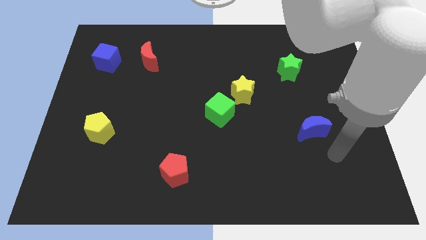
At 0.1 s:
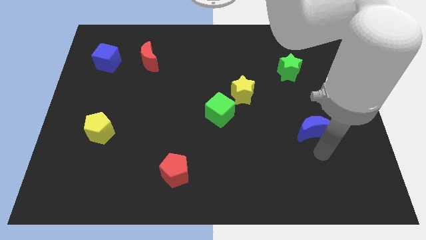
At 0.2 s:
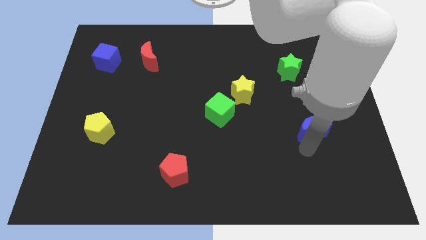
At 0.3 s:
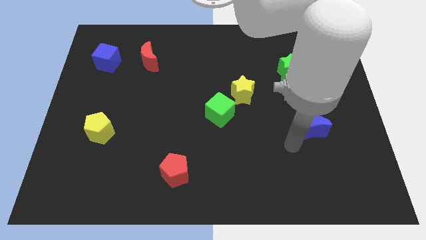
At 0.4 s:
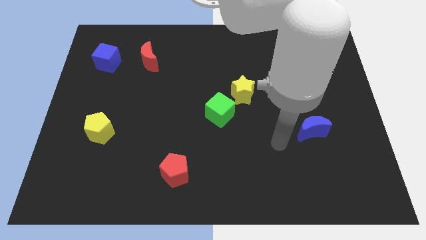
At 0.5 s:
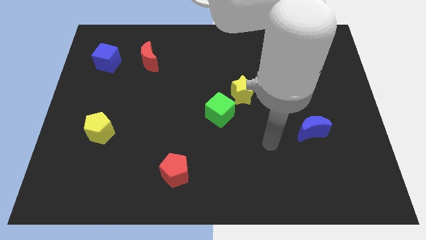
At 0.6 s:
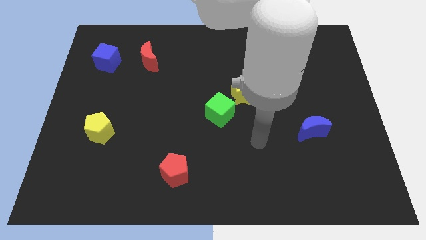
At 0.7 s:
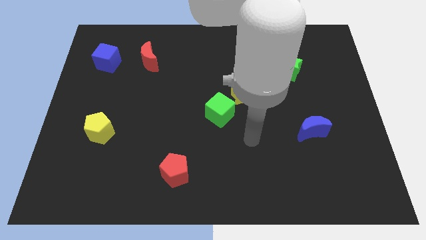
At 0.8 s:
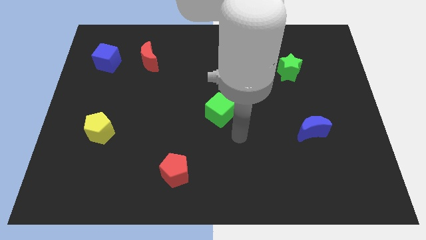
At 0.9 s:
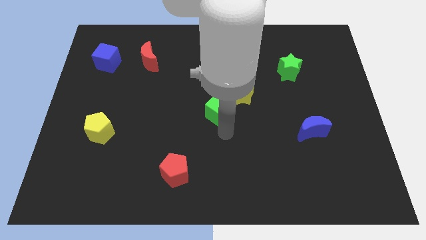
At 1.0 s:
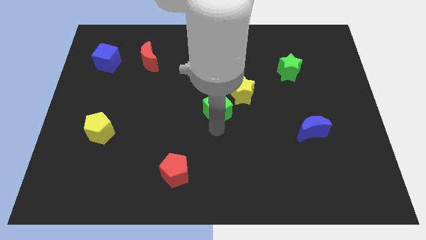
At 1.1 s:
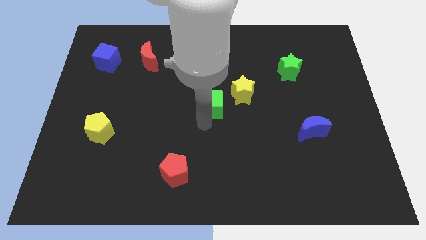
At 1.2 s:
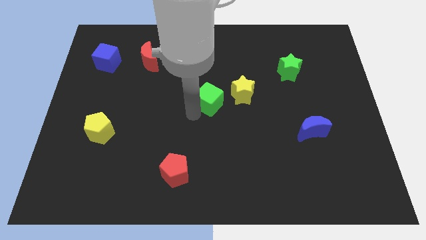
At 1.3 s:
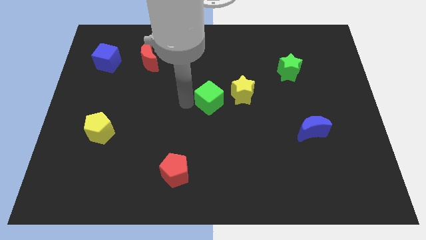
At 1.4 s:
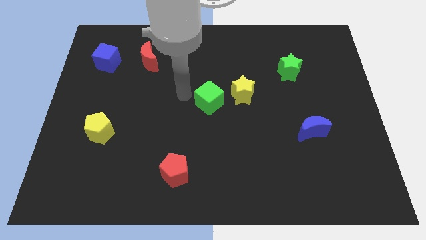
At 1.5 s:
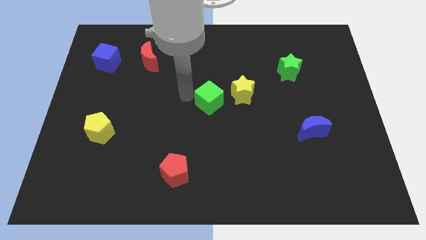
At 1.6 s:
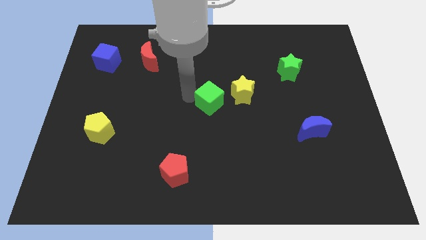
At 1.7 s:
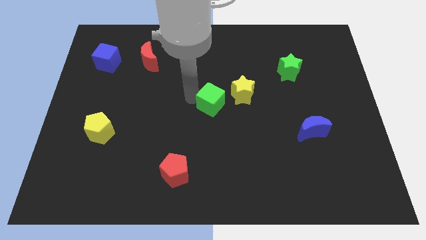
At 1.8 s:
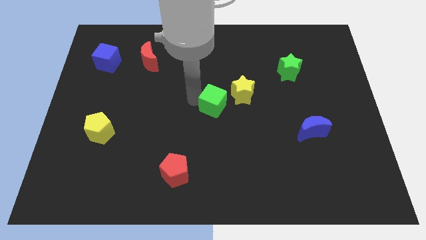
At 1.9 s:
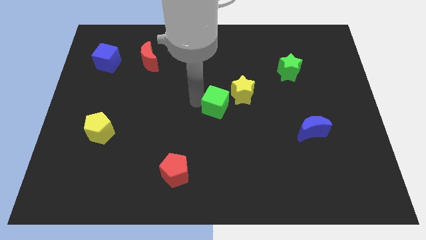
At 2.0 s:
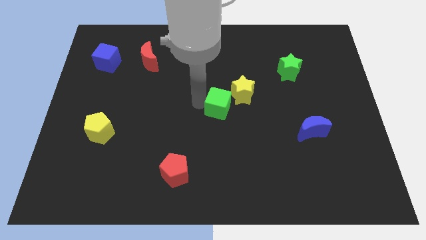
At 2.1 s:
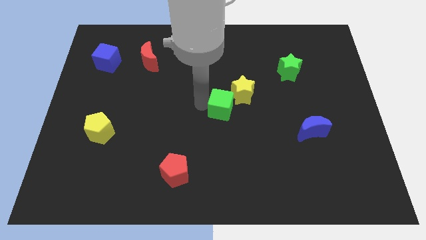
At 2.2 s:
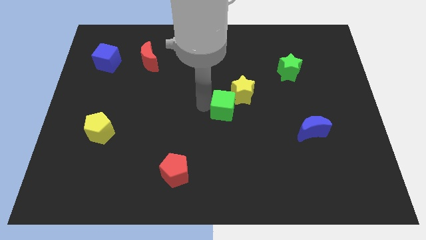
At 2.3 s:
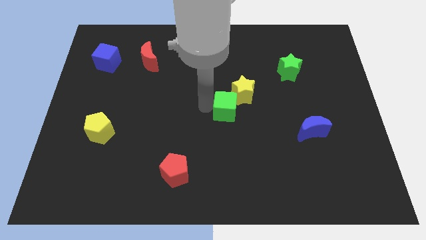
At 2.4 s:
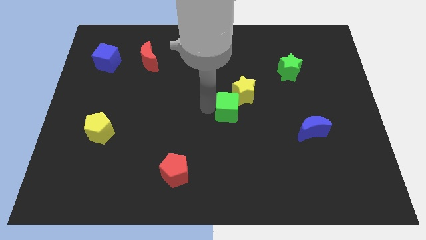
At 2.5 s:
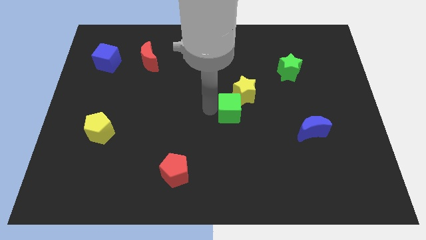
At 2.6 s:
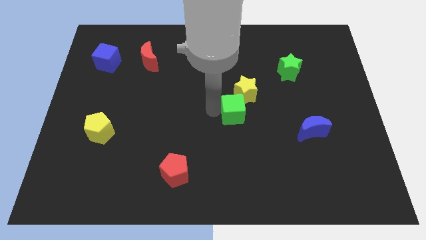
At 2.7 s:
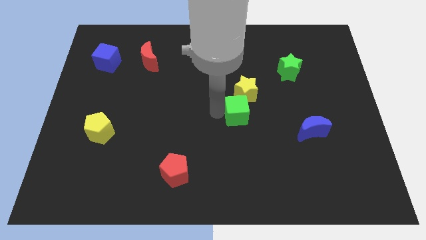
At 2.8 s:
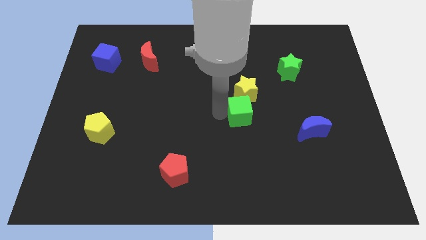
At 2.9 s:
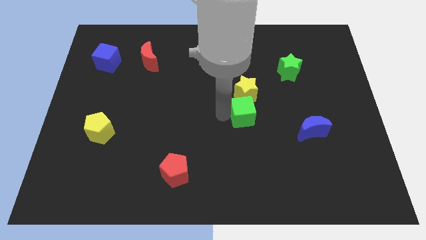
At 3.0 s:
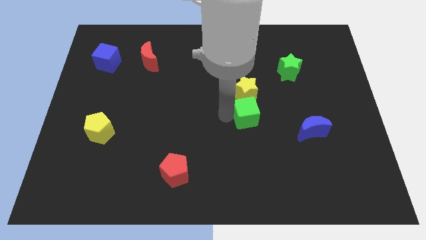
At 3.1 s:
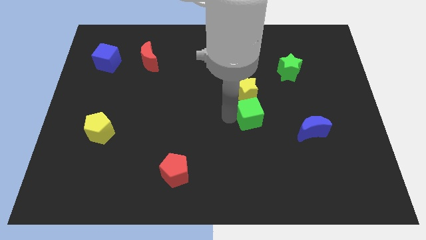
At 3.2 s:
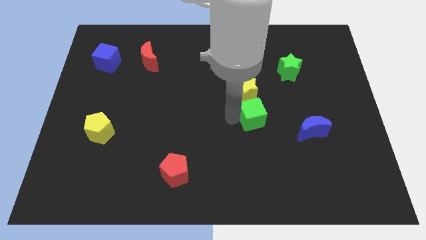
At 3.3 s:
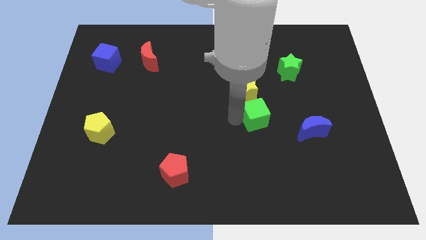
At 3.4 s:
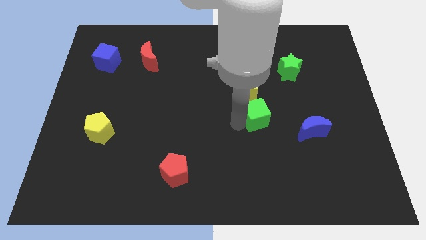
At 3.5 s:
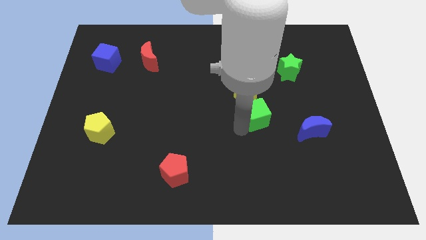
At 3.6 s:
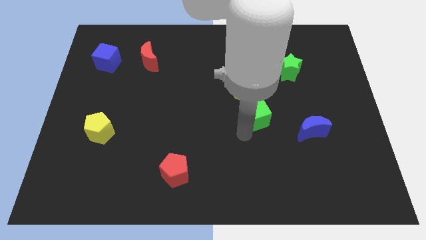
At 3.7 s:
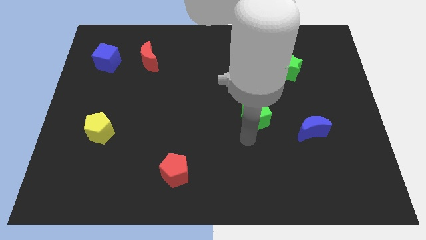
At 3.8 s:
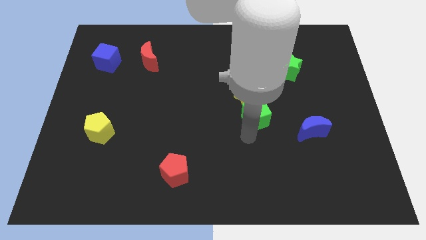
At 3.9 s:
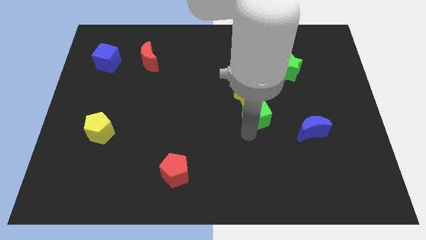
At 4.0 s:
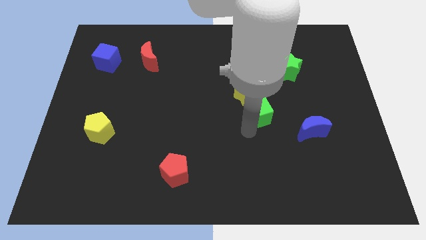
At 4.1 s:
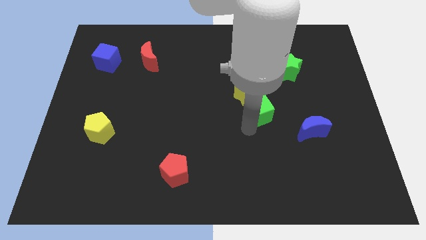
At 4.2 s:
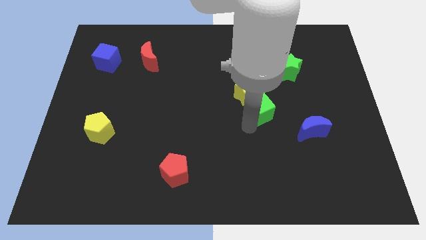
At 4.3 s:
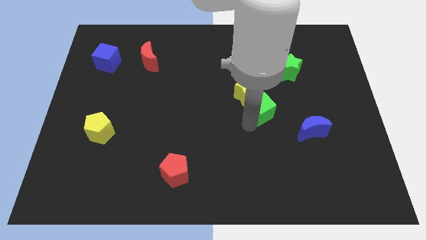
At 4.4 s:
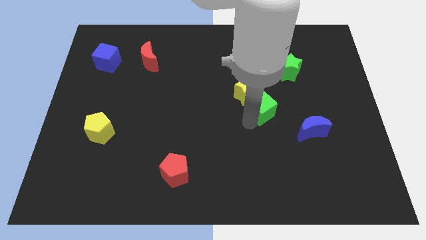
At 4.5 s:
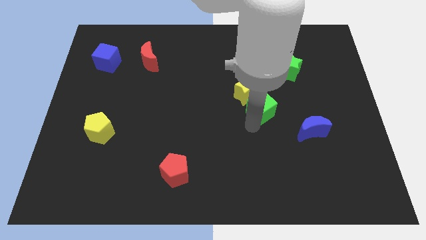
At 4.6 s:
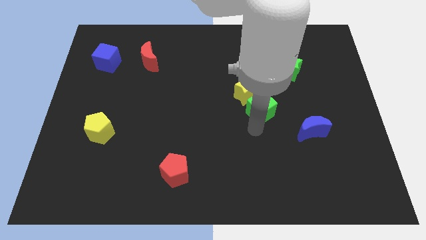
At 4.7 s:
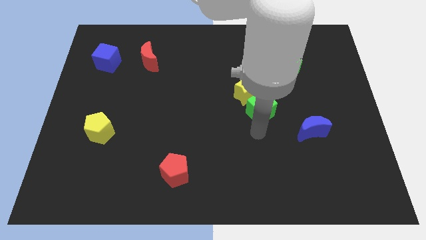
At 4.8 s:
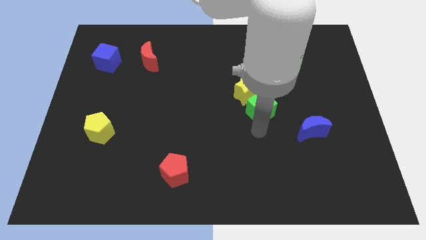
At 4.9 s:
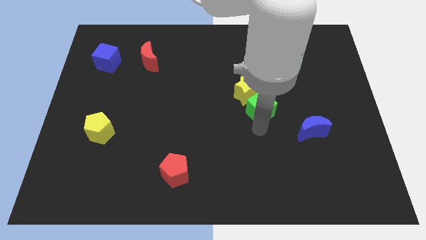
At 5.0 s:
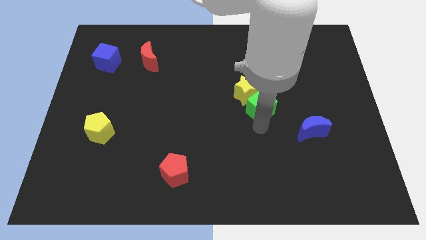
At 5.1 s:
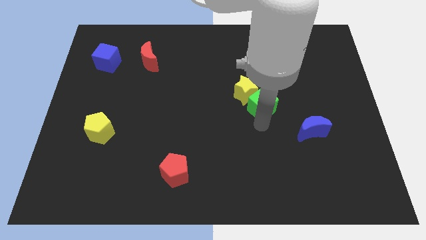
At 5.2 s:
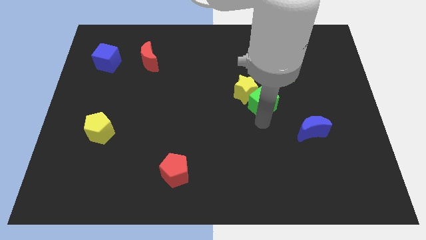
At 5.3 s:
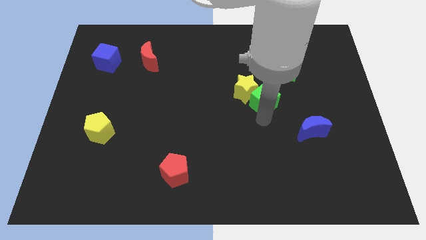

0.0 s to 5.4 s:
move the green cube diagonally down and to the left of the green star

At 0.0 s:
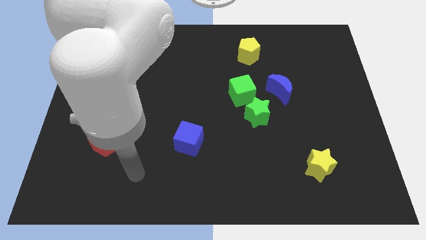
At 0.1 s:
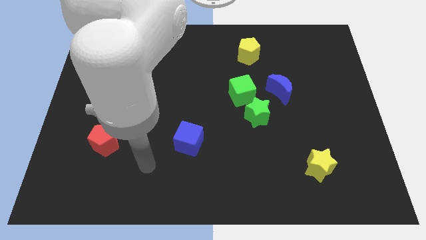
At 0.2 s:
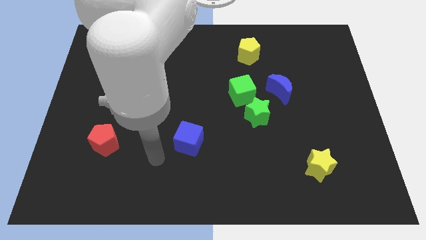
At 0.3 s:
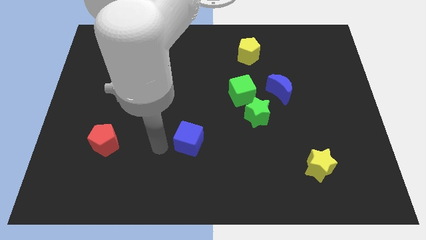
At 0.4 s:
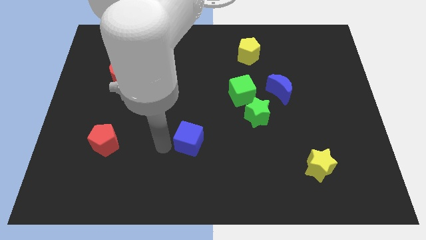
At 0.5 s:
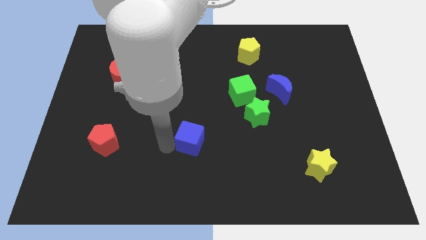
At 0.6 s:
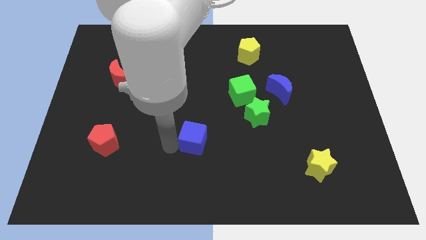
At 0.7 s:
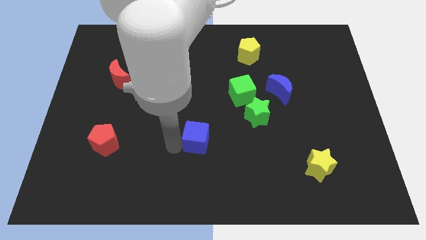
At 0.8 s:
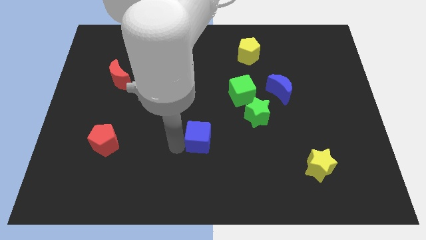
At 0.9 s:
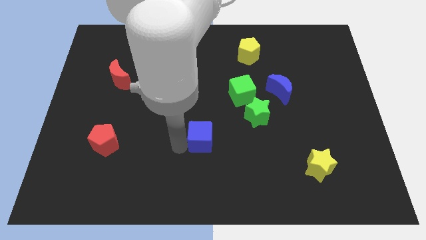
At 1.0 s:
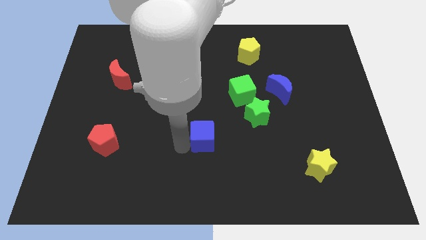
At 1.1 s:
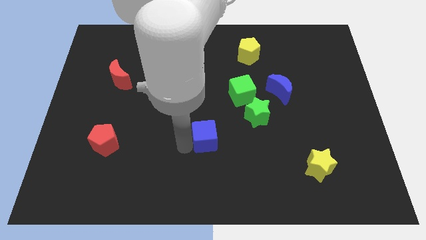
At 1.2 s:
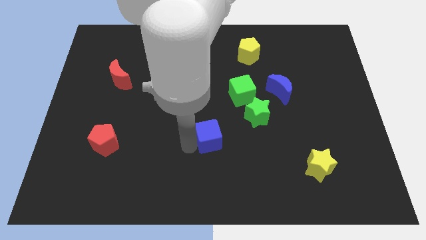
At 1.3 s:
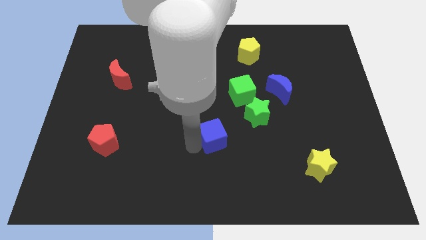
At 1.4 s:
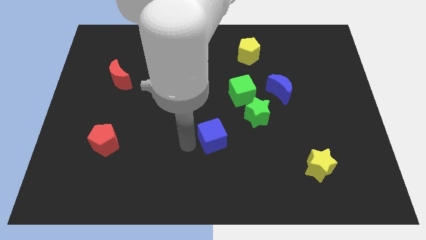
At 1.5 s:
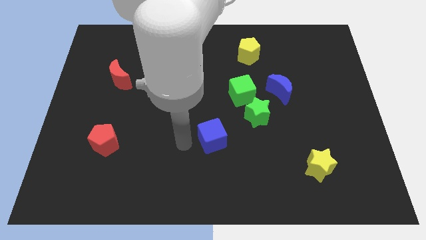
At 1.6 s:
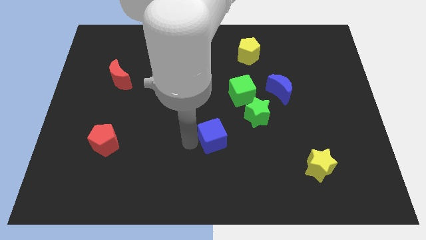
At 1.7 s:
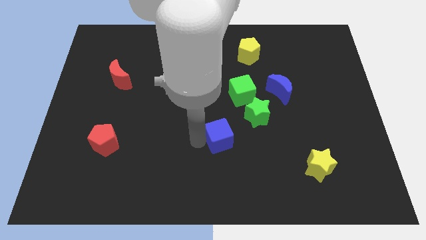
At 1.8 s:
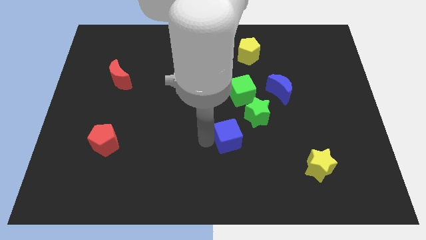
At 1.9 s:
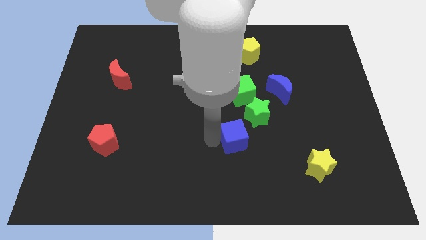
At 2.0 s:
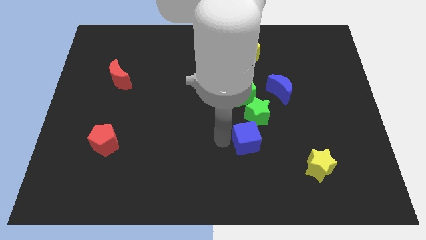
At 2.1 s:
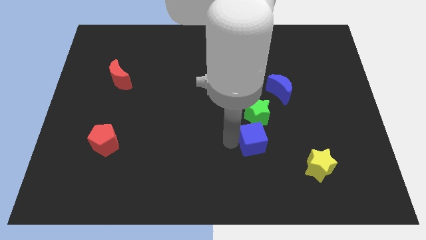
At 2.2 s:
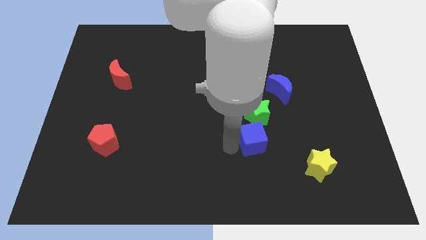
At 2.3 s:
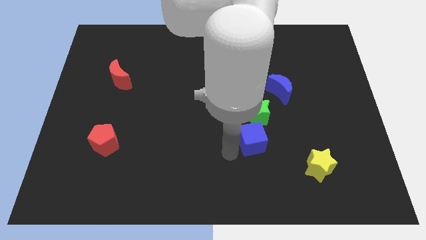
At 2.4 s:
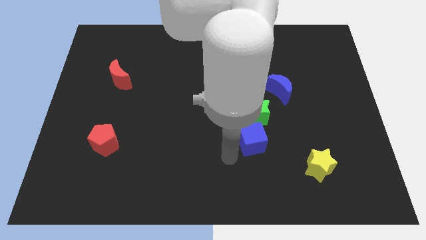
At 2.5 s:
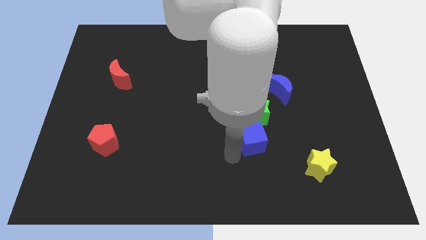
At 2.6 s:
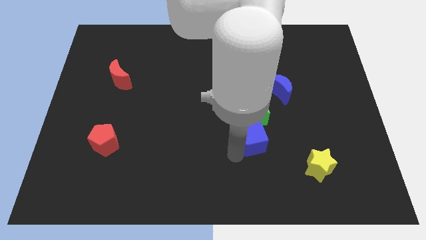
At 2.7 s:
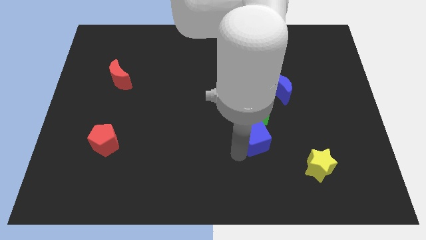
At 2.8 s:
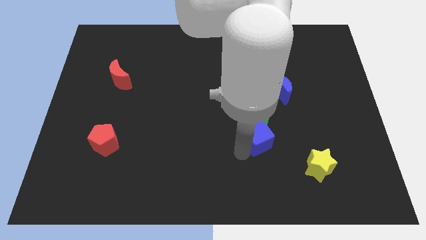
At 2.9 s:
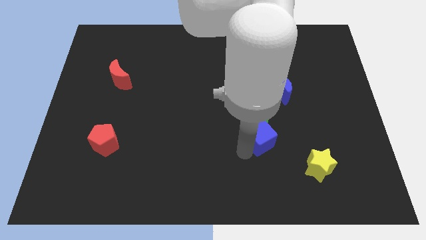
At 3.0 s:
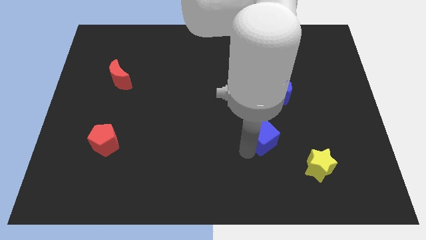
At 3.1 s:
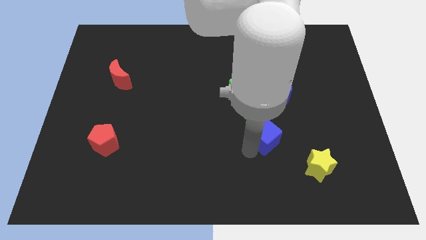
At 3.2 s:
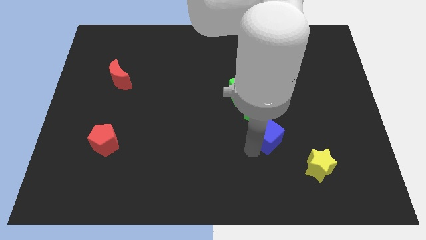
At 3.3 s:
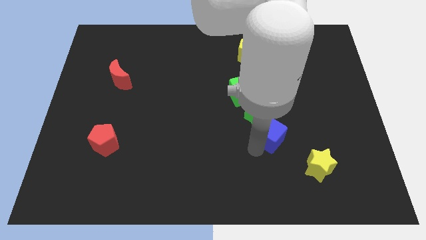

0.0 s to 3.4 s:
push the blue cube to the bottom side of the blue moon
